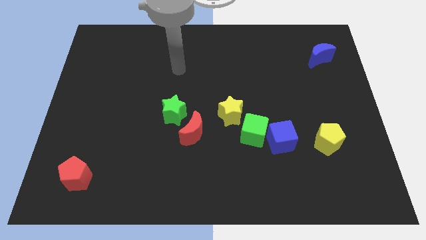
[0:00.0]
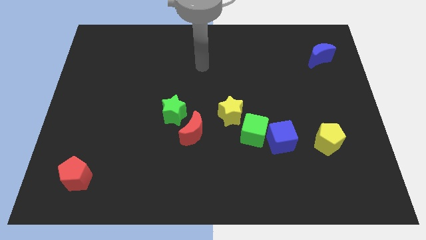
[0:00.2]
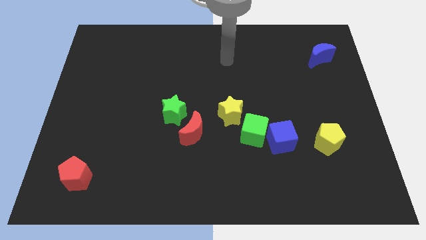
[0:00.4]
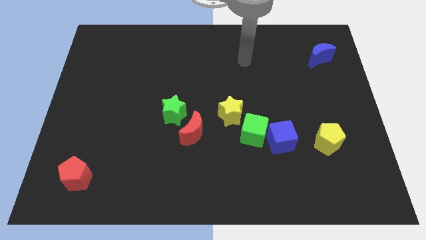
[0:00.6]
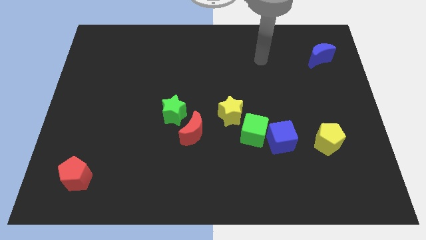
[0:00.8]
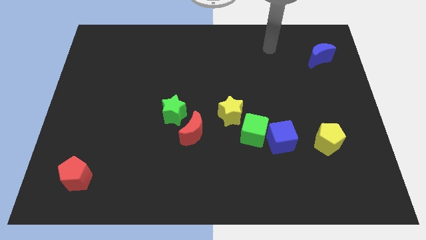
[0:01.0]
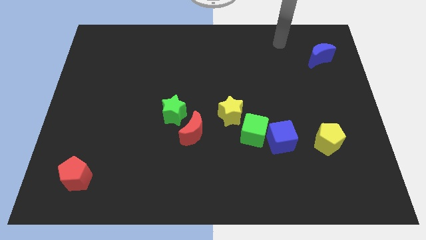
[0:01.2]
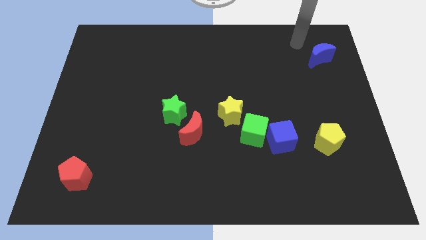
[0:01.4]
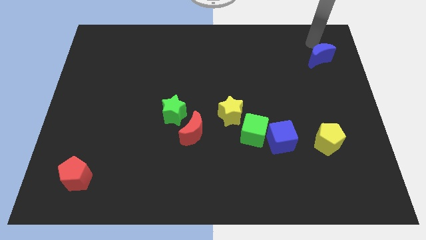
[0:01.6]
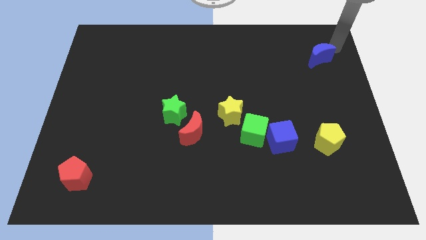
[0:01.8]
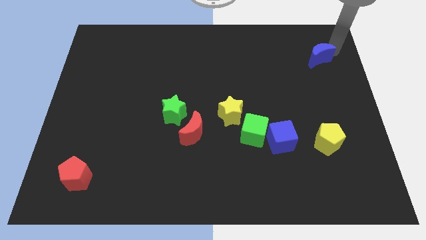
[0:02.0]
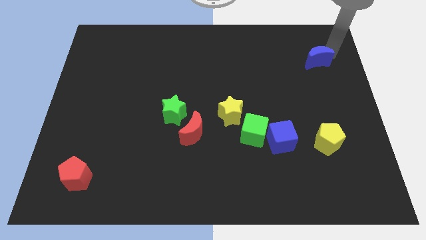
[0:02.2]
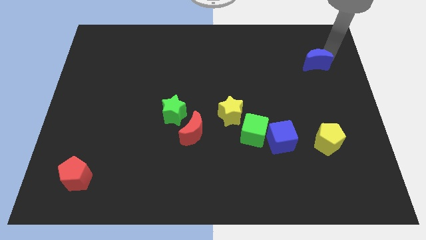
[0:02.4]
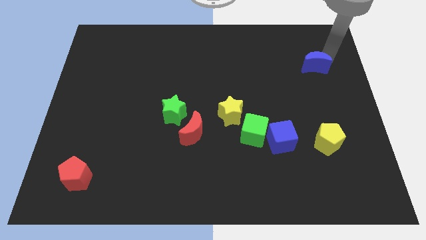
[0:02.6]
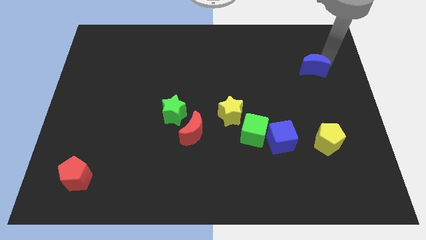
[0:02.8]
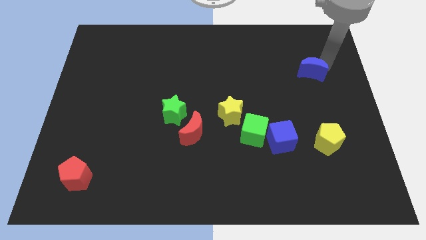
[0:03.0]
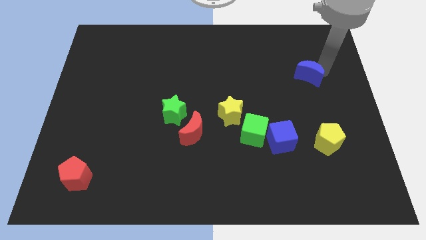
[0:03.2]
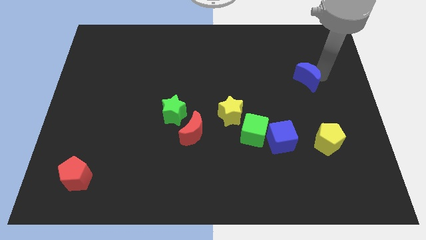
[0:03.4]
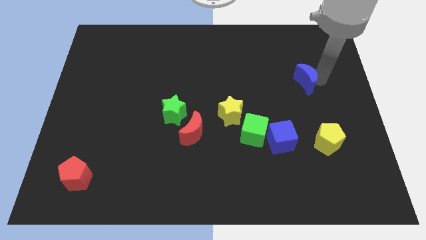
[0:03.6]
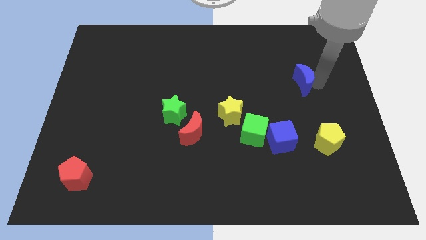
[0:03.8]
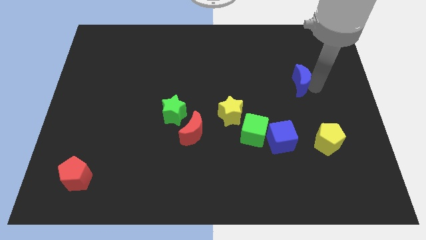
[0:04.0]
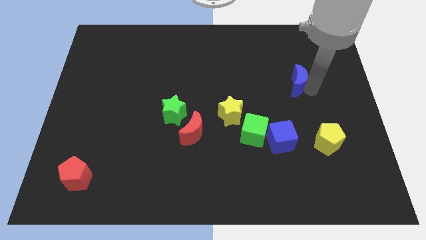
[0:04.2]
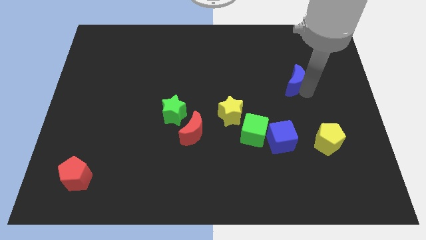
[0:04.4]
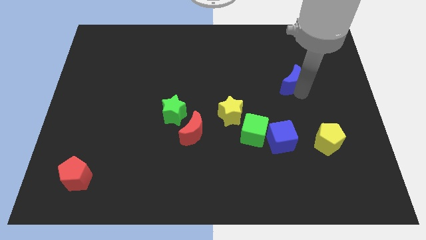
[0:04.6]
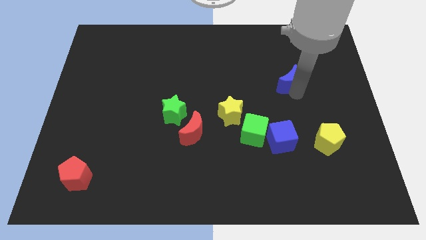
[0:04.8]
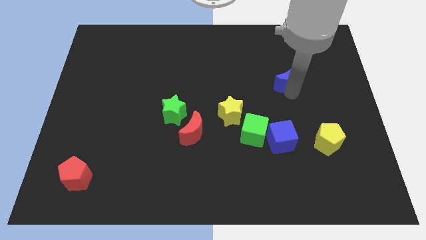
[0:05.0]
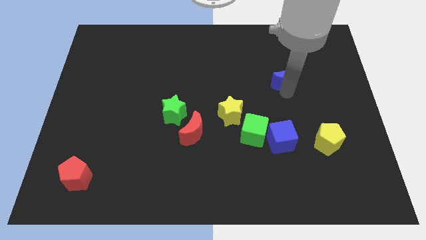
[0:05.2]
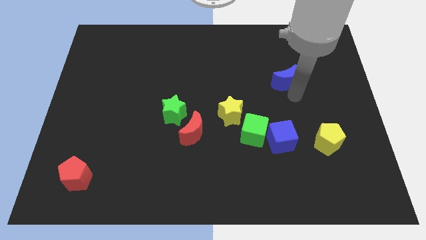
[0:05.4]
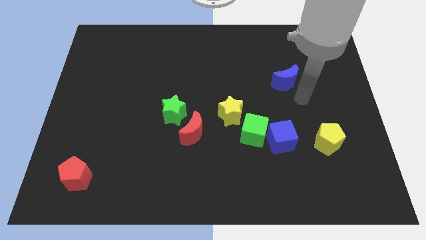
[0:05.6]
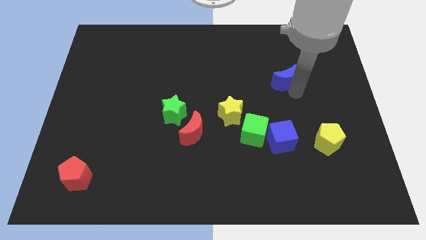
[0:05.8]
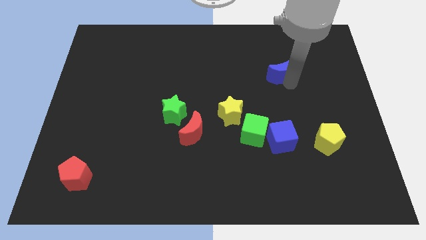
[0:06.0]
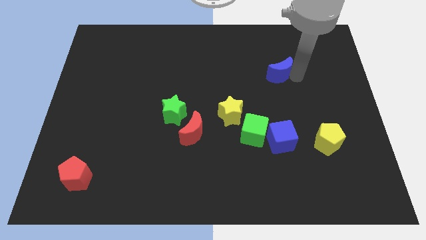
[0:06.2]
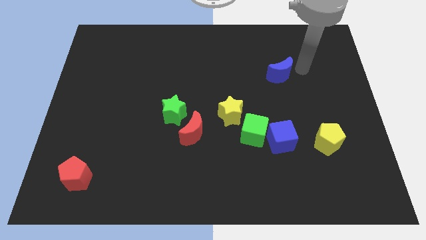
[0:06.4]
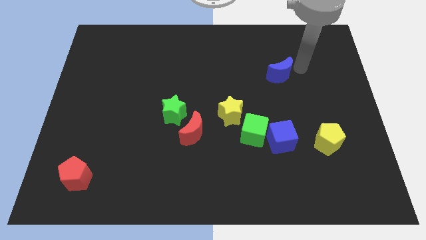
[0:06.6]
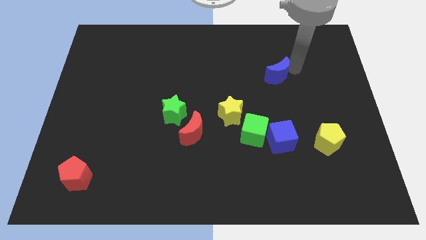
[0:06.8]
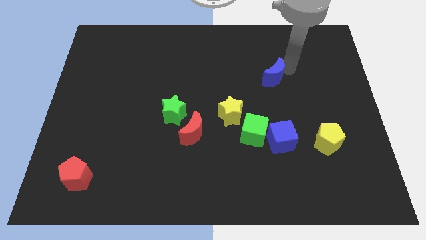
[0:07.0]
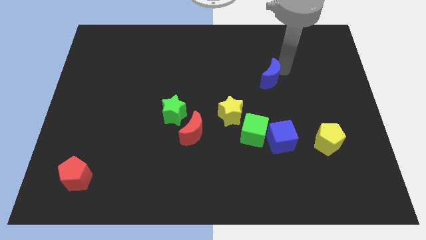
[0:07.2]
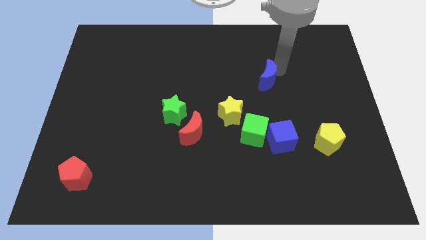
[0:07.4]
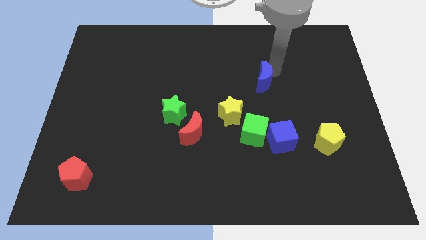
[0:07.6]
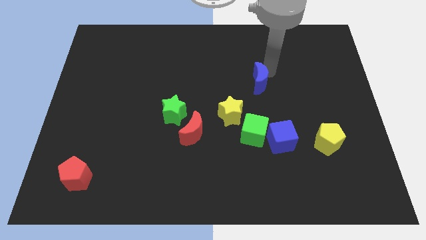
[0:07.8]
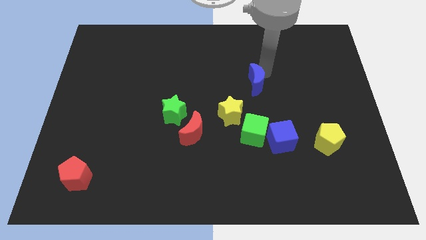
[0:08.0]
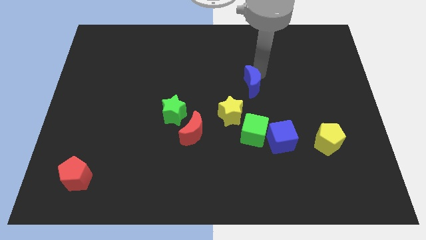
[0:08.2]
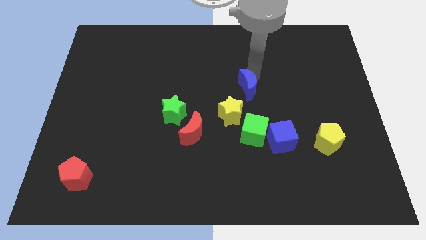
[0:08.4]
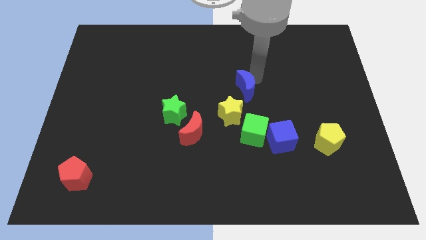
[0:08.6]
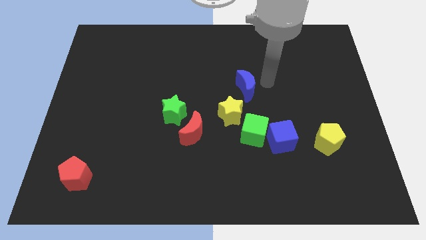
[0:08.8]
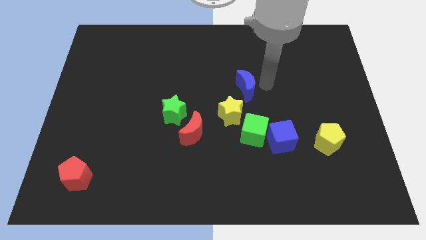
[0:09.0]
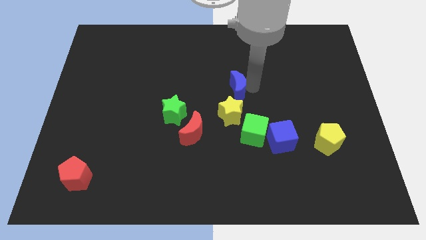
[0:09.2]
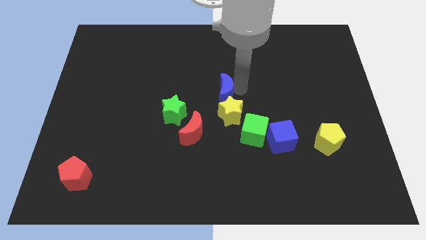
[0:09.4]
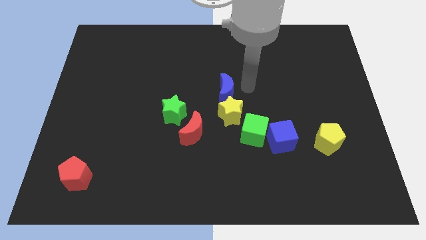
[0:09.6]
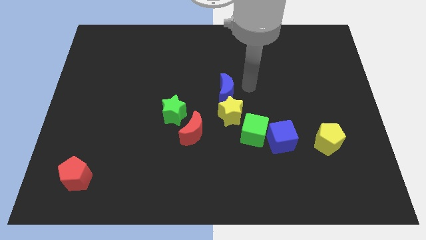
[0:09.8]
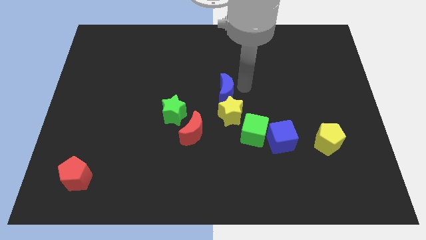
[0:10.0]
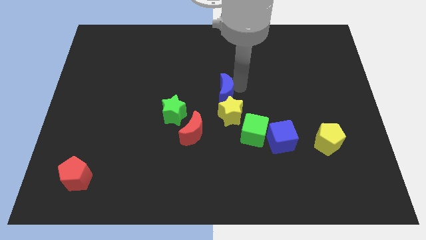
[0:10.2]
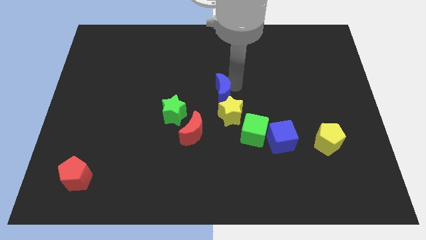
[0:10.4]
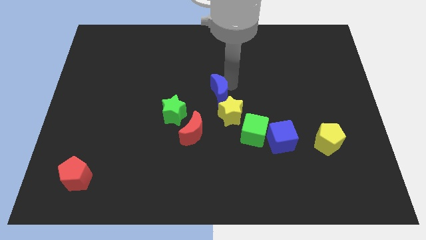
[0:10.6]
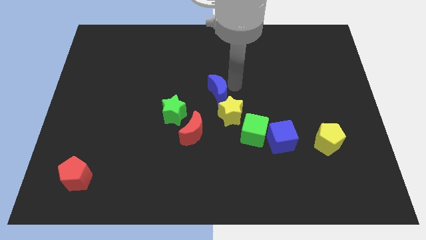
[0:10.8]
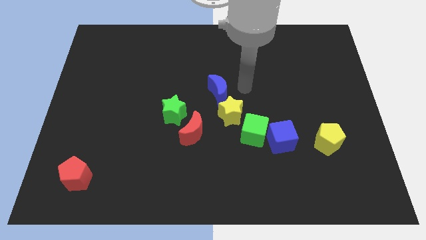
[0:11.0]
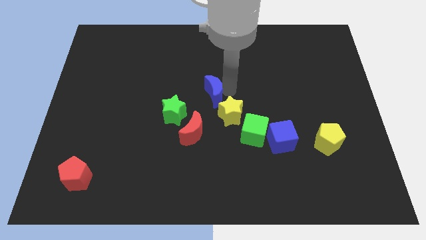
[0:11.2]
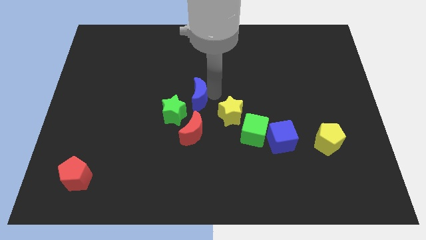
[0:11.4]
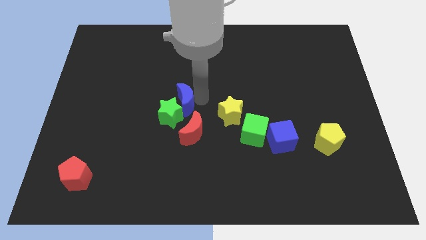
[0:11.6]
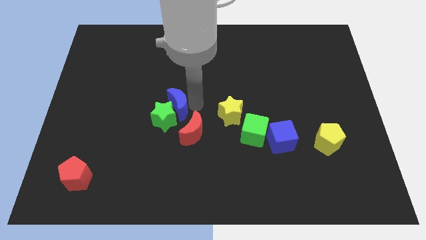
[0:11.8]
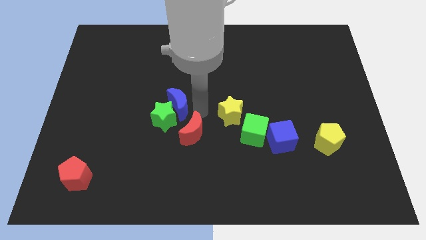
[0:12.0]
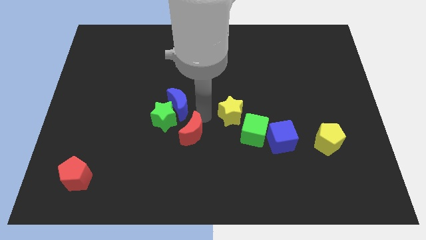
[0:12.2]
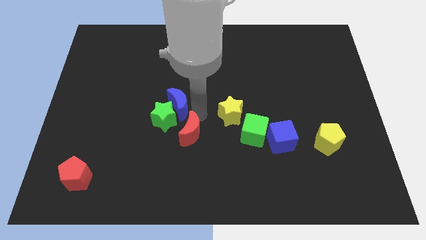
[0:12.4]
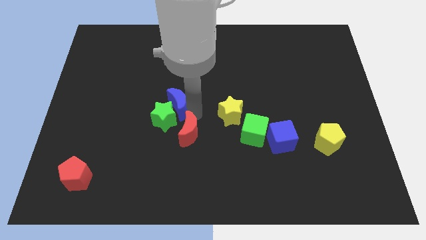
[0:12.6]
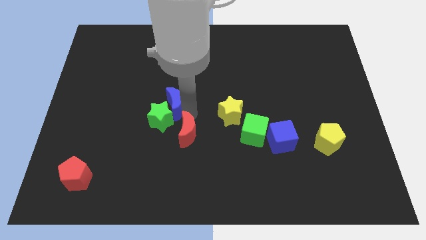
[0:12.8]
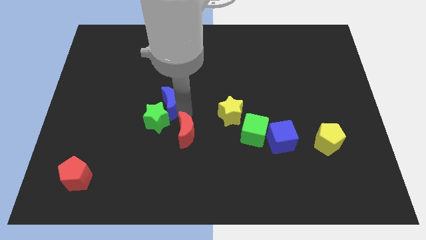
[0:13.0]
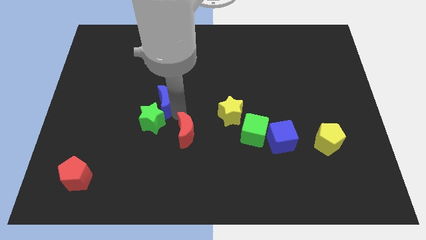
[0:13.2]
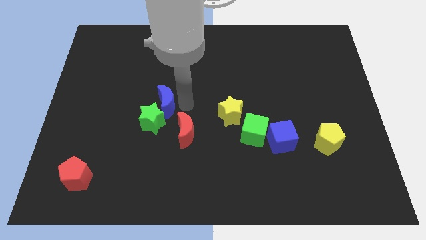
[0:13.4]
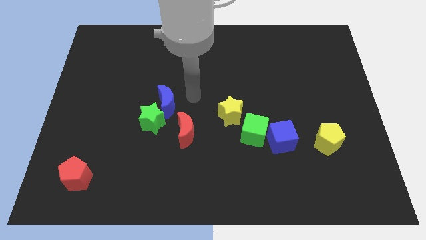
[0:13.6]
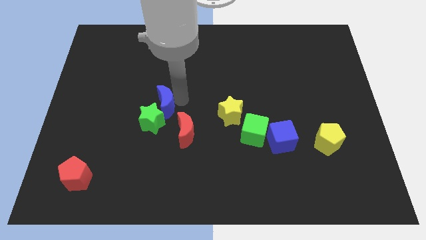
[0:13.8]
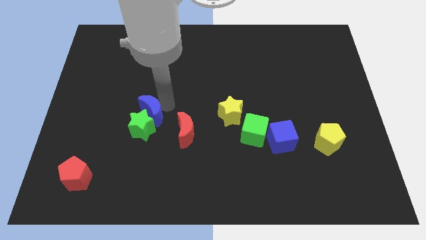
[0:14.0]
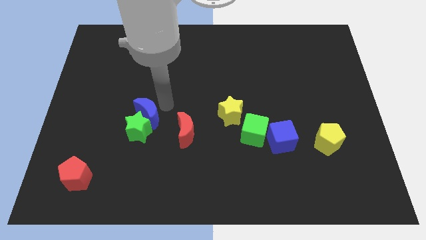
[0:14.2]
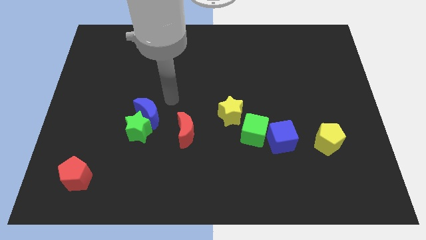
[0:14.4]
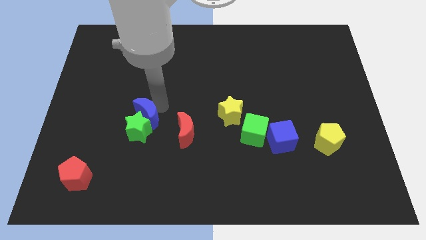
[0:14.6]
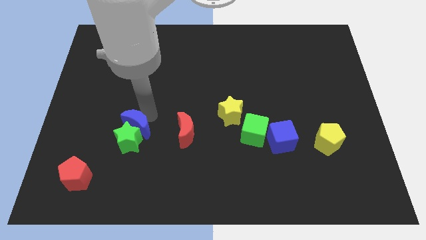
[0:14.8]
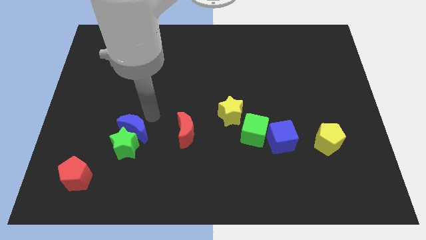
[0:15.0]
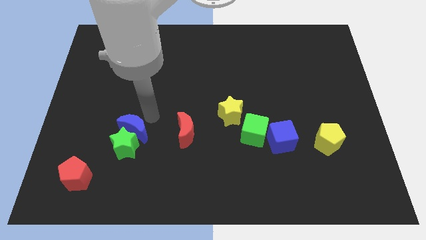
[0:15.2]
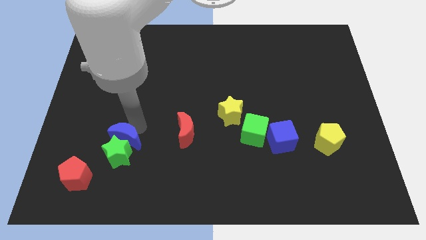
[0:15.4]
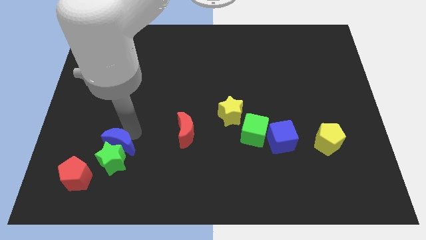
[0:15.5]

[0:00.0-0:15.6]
slide the blue moon diagonally up and to the right of the red pentagon

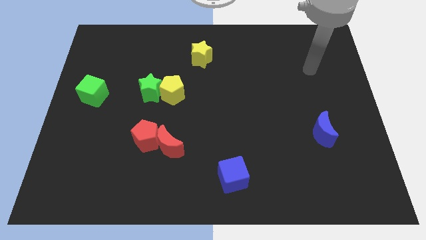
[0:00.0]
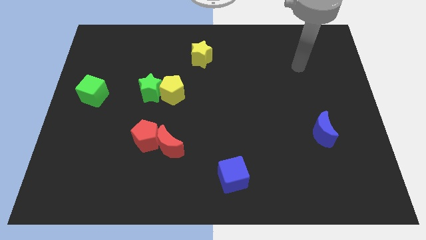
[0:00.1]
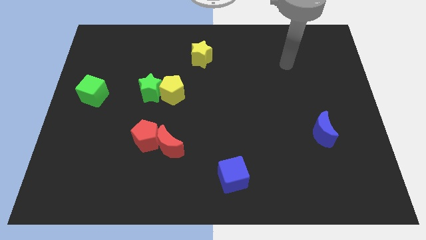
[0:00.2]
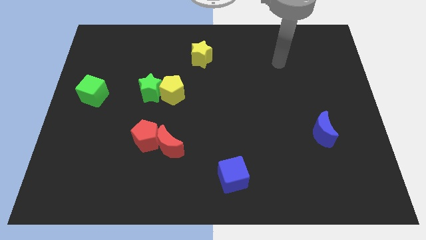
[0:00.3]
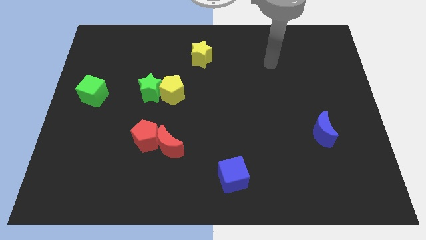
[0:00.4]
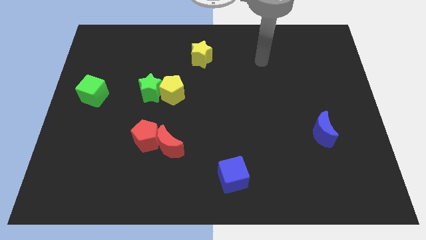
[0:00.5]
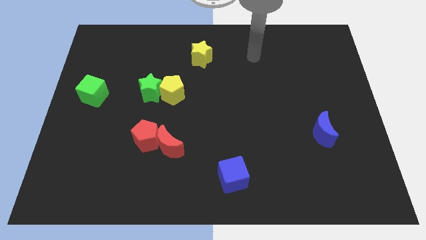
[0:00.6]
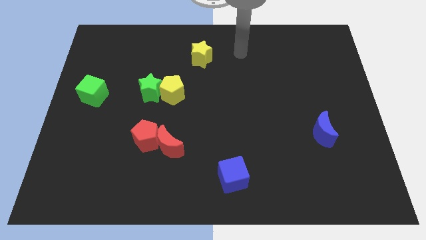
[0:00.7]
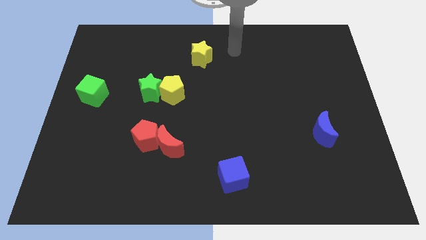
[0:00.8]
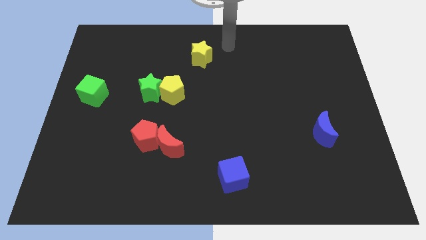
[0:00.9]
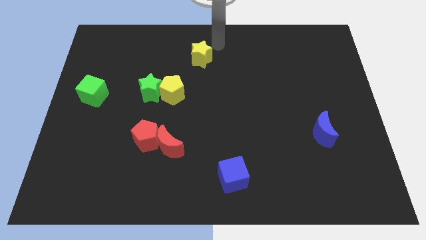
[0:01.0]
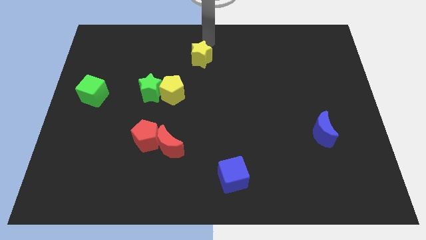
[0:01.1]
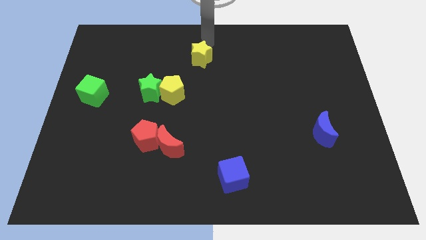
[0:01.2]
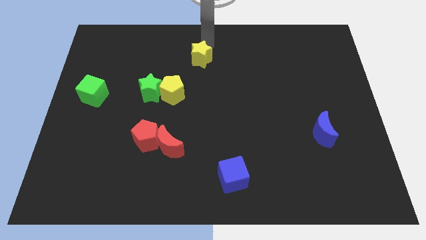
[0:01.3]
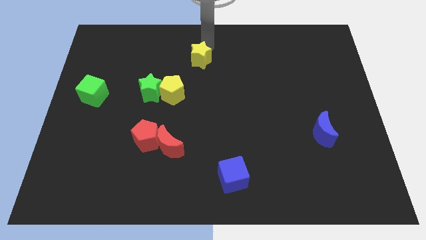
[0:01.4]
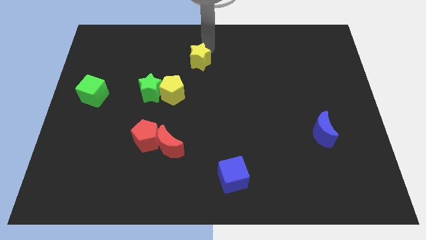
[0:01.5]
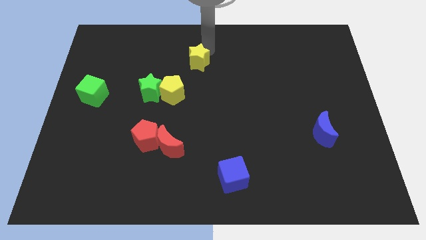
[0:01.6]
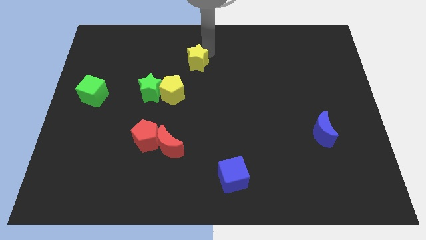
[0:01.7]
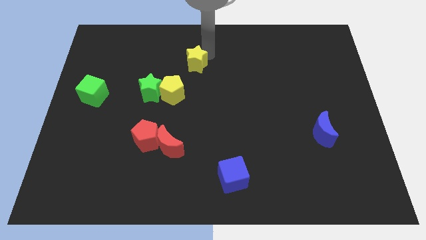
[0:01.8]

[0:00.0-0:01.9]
put the yellow star to the top right side of the yellow pentagon
